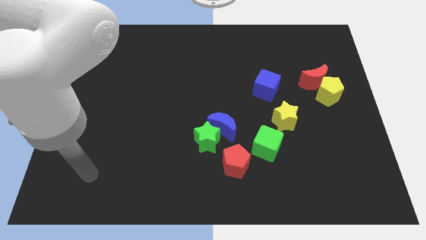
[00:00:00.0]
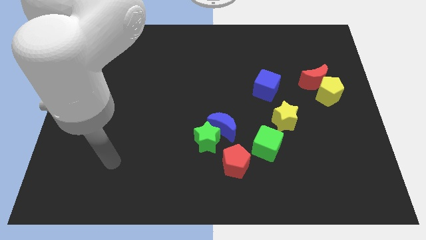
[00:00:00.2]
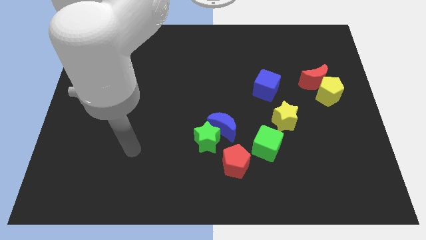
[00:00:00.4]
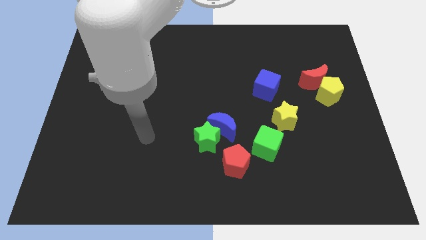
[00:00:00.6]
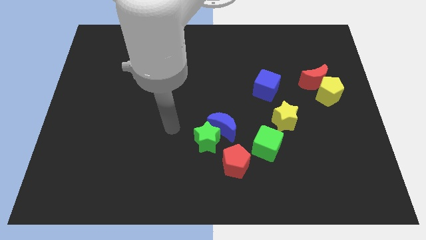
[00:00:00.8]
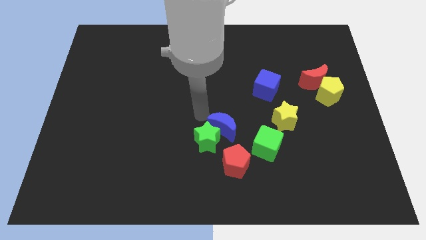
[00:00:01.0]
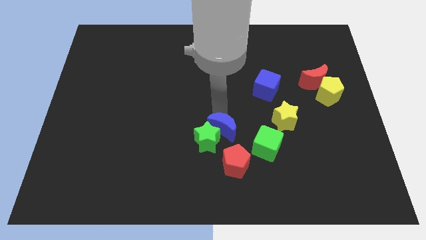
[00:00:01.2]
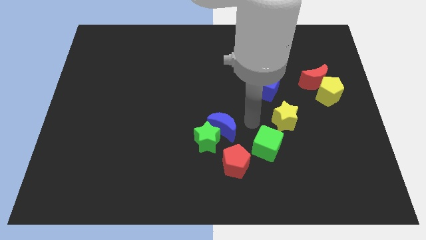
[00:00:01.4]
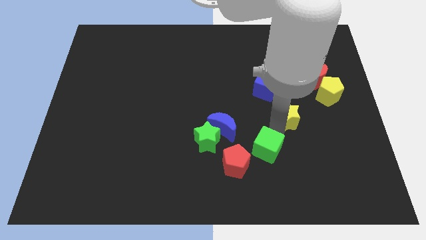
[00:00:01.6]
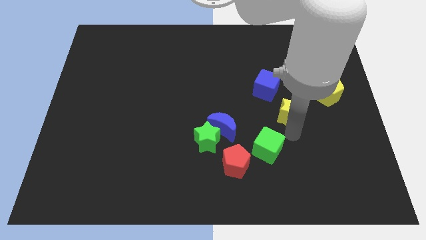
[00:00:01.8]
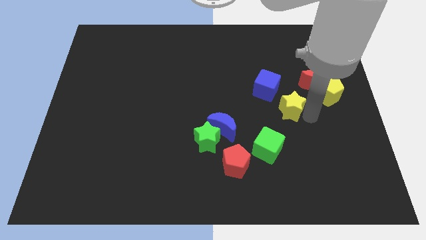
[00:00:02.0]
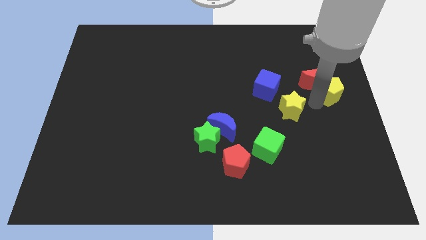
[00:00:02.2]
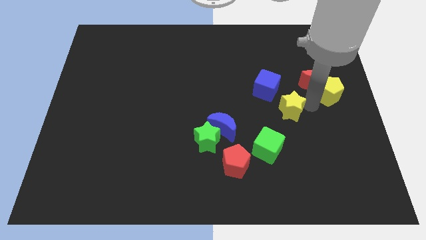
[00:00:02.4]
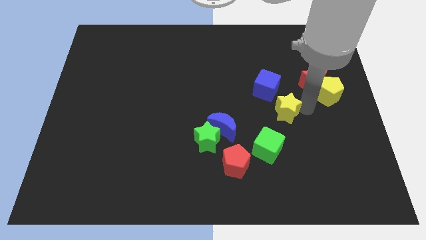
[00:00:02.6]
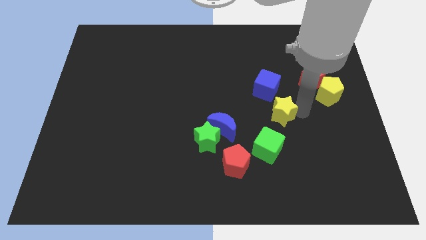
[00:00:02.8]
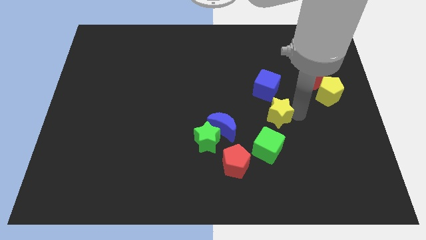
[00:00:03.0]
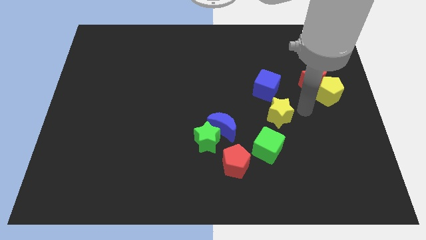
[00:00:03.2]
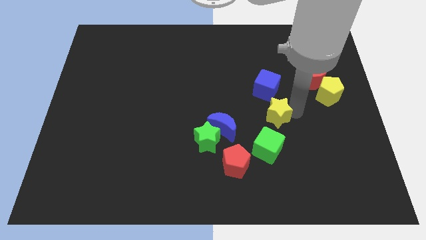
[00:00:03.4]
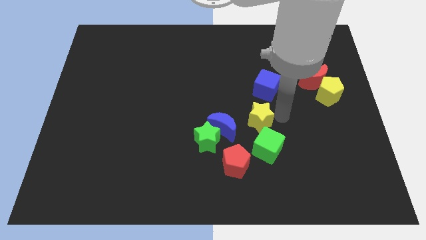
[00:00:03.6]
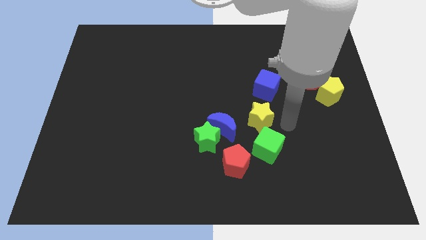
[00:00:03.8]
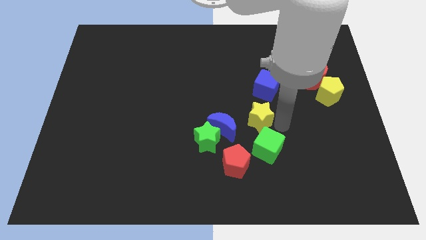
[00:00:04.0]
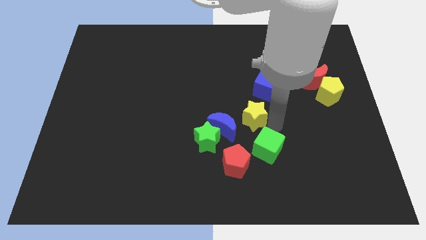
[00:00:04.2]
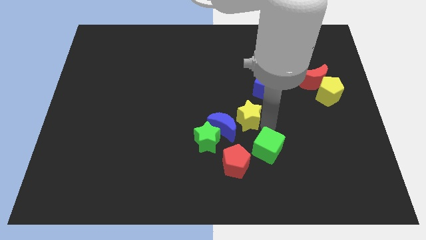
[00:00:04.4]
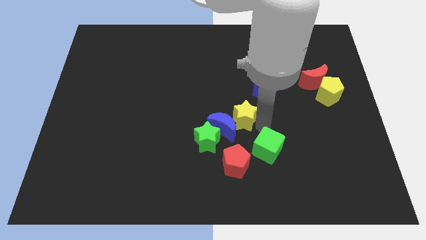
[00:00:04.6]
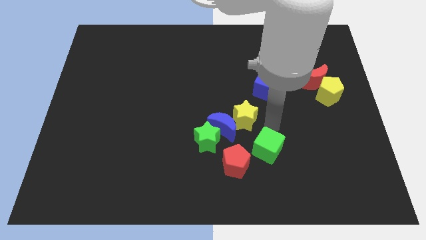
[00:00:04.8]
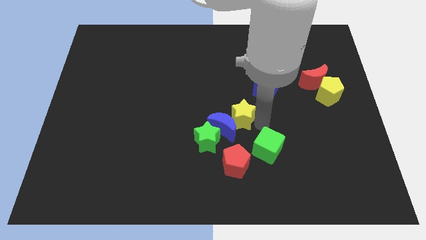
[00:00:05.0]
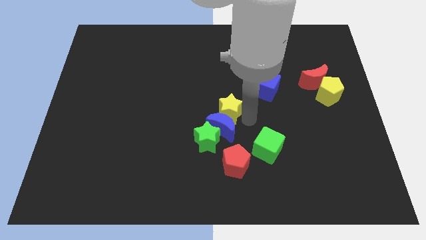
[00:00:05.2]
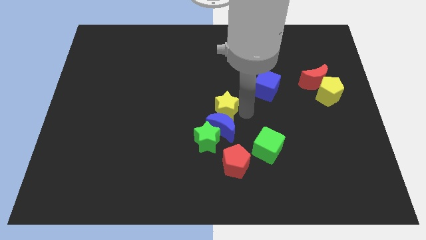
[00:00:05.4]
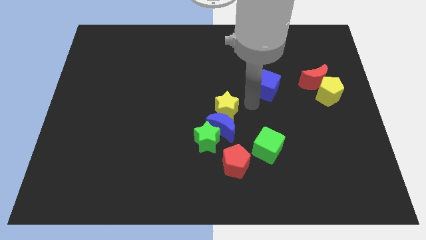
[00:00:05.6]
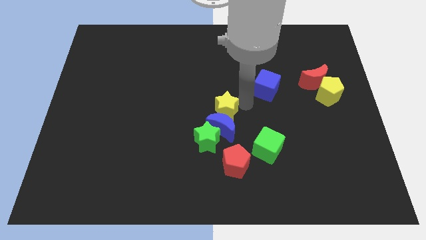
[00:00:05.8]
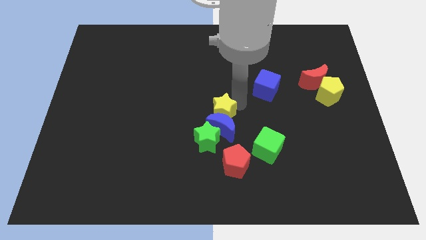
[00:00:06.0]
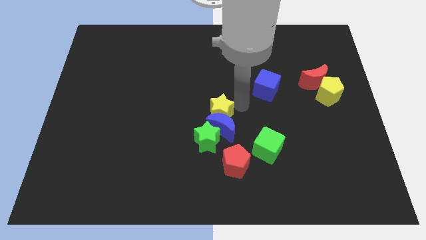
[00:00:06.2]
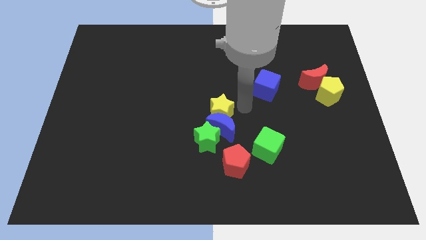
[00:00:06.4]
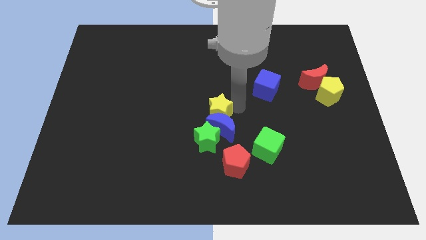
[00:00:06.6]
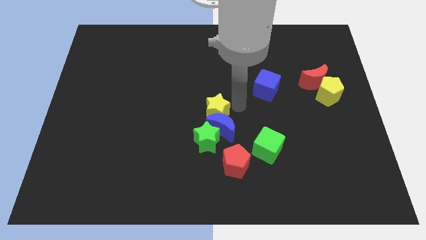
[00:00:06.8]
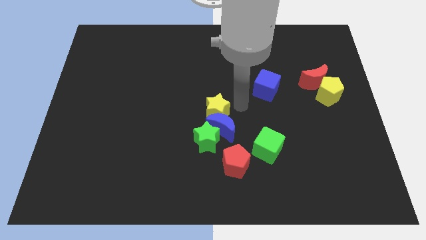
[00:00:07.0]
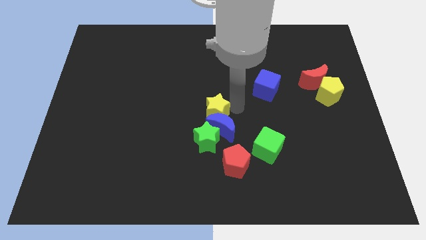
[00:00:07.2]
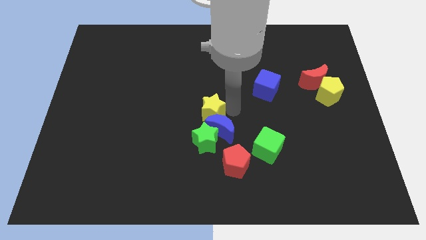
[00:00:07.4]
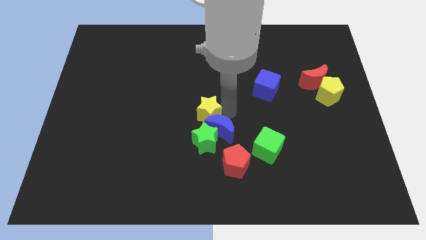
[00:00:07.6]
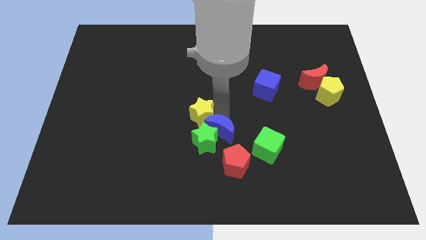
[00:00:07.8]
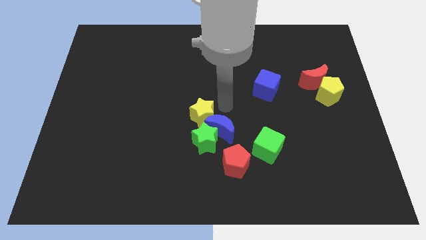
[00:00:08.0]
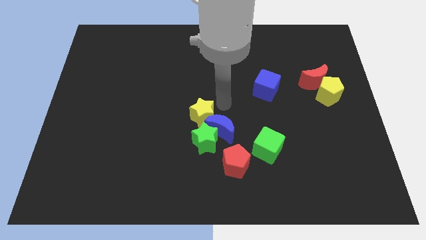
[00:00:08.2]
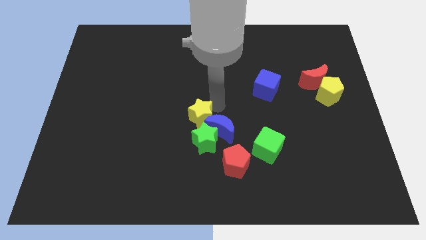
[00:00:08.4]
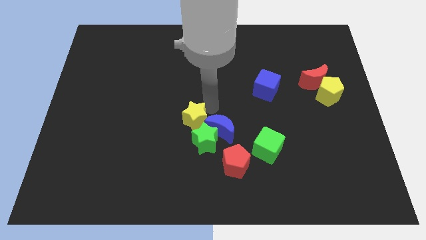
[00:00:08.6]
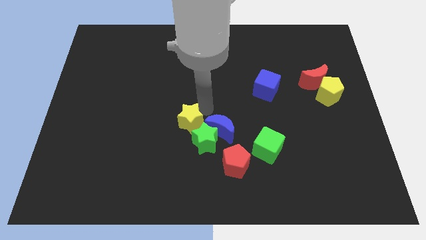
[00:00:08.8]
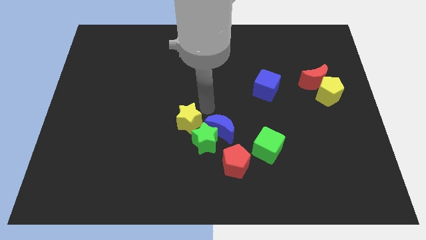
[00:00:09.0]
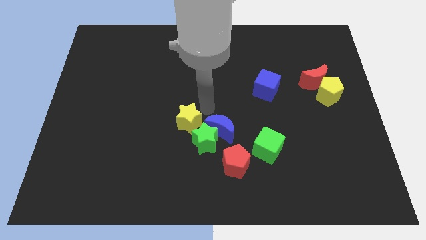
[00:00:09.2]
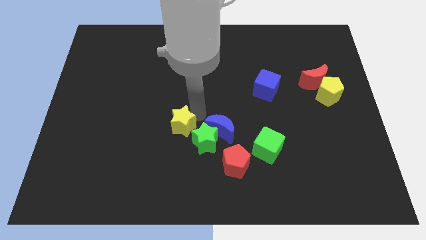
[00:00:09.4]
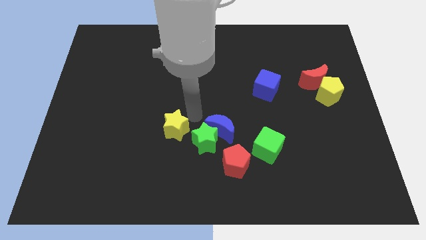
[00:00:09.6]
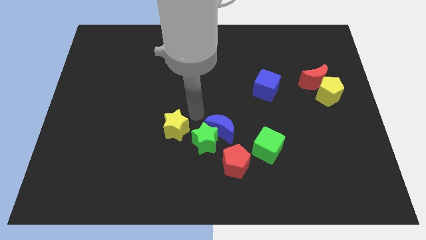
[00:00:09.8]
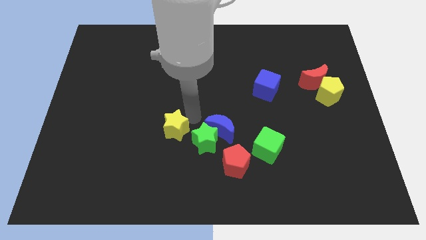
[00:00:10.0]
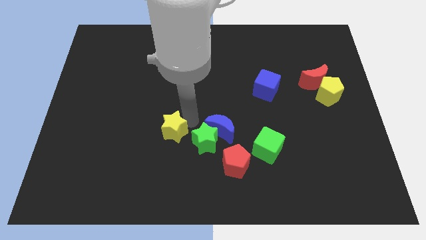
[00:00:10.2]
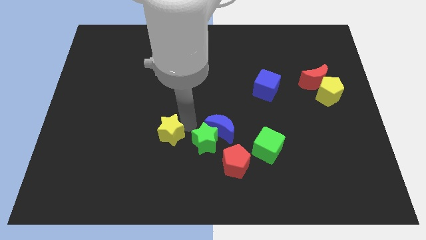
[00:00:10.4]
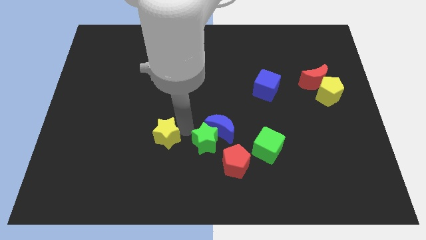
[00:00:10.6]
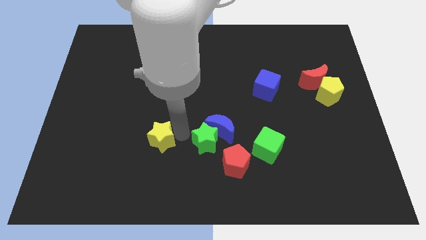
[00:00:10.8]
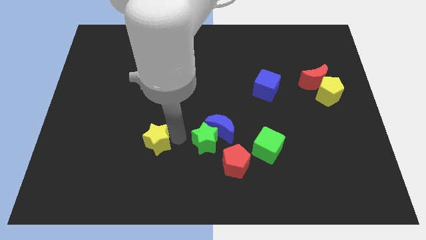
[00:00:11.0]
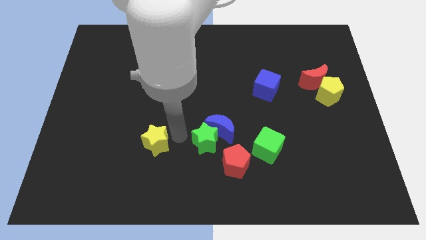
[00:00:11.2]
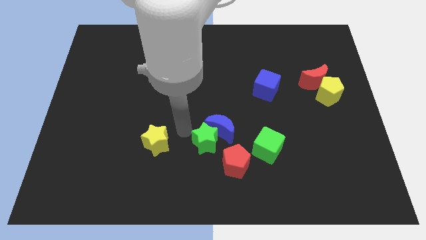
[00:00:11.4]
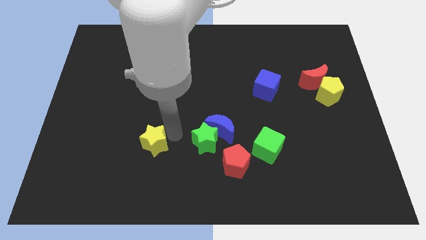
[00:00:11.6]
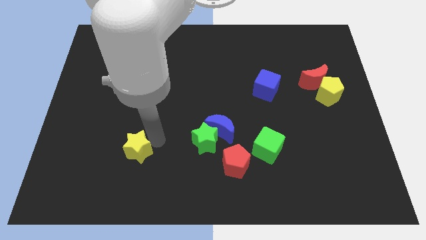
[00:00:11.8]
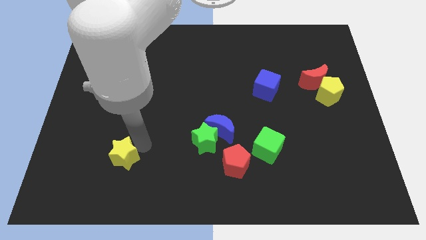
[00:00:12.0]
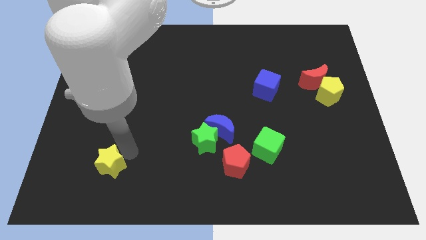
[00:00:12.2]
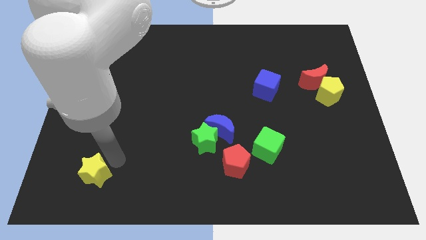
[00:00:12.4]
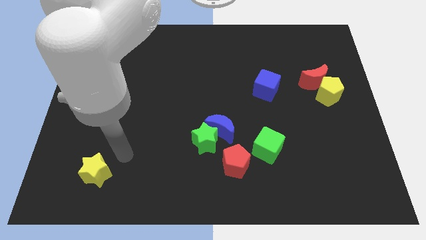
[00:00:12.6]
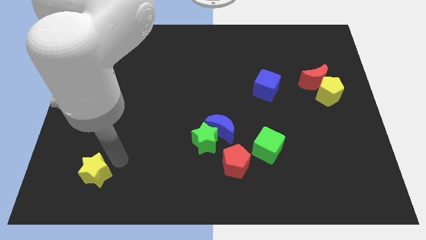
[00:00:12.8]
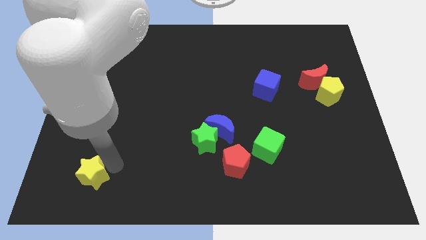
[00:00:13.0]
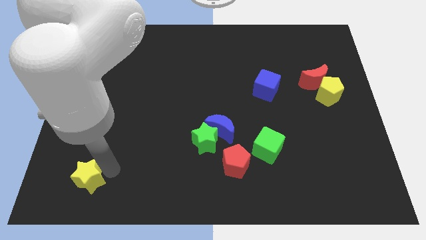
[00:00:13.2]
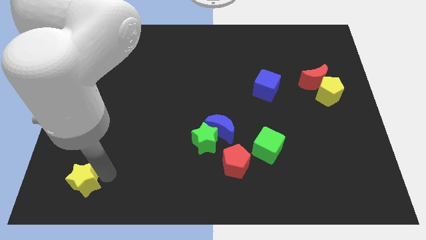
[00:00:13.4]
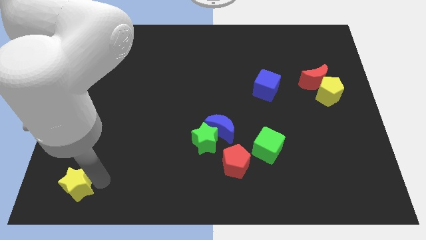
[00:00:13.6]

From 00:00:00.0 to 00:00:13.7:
put the yellow star to the lower left corner
